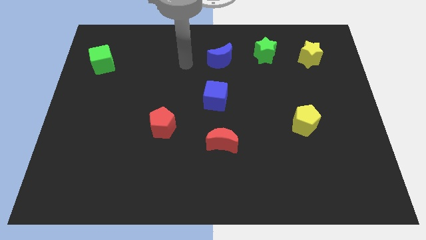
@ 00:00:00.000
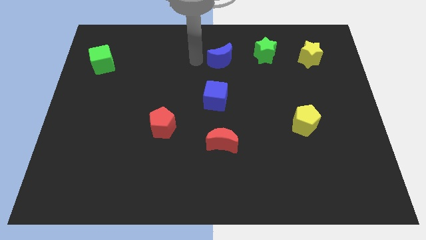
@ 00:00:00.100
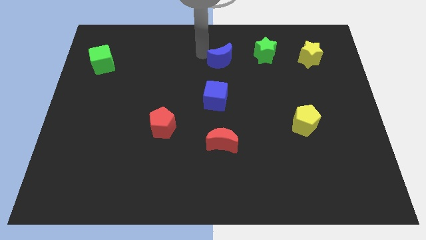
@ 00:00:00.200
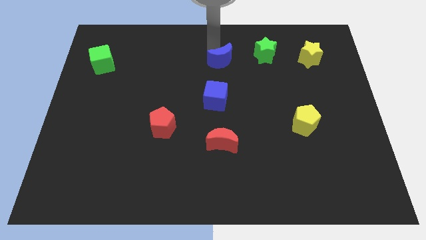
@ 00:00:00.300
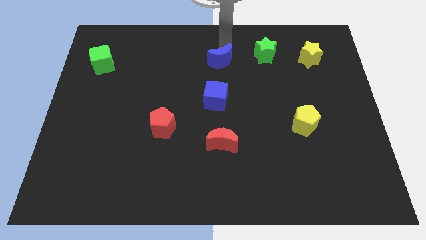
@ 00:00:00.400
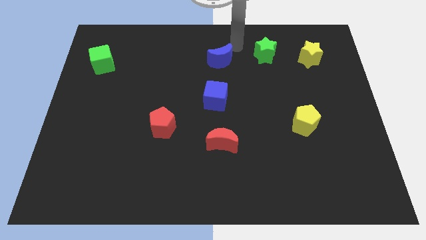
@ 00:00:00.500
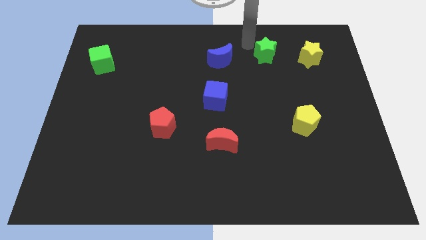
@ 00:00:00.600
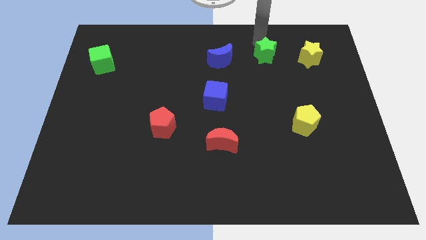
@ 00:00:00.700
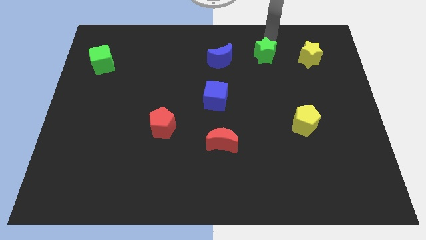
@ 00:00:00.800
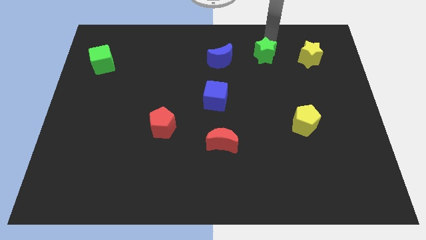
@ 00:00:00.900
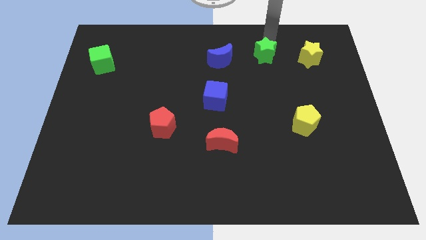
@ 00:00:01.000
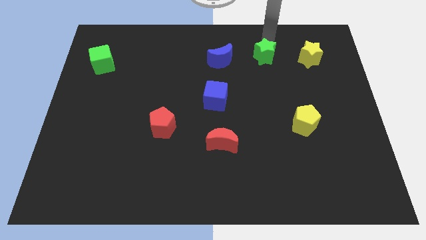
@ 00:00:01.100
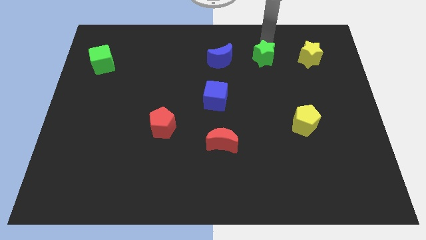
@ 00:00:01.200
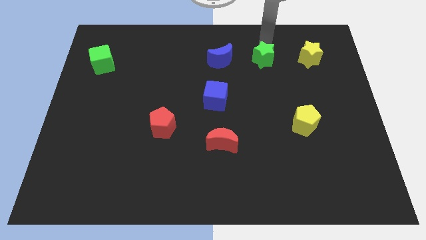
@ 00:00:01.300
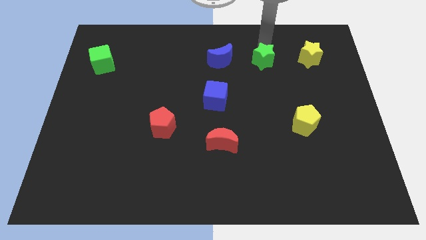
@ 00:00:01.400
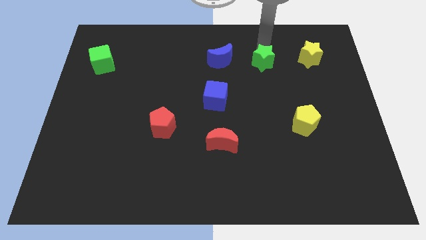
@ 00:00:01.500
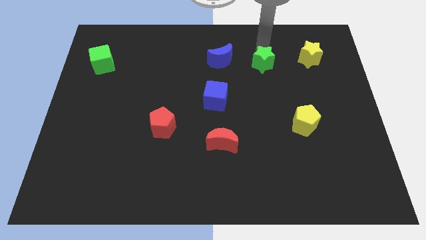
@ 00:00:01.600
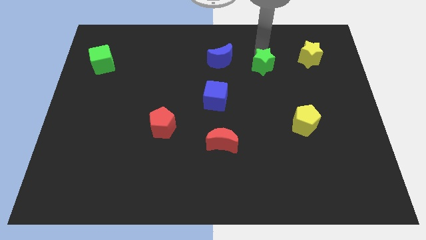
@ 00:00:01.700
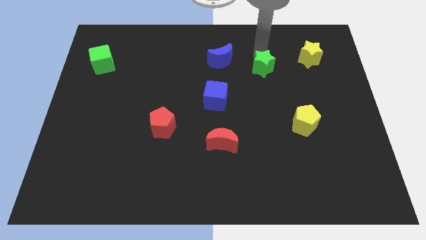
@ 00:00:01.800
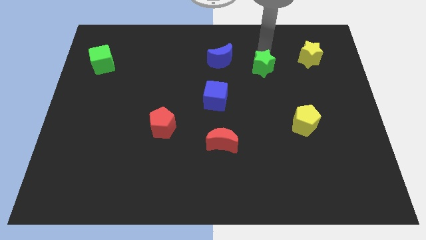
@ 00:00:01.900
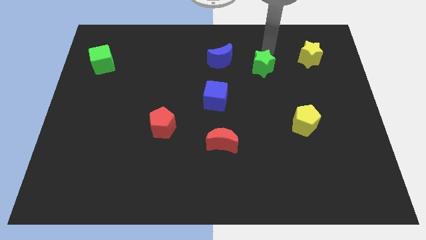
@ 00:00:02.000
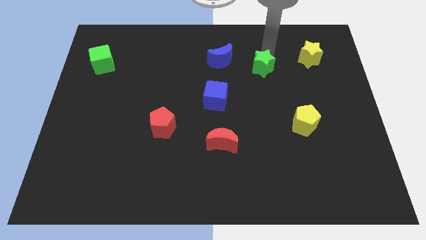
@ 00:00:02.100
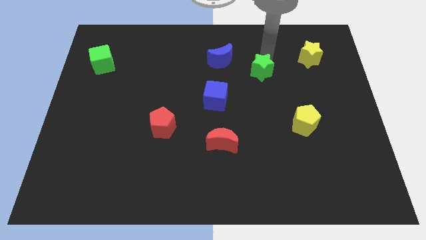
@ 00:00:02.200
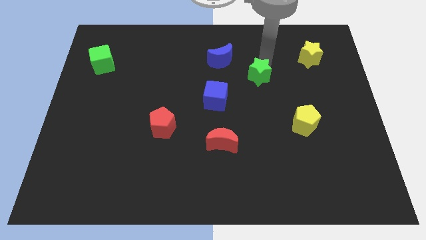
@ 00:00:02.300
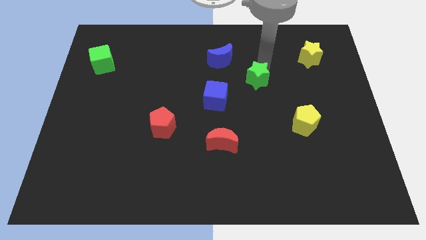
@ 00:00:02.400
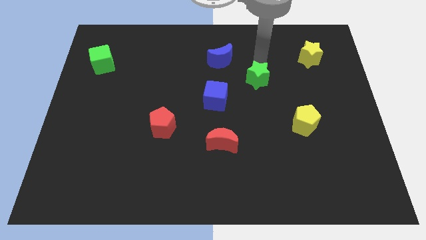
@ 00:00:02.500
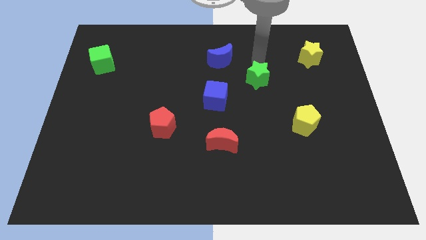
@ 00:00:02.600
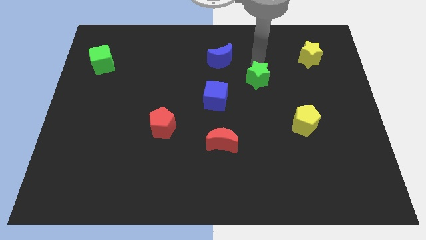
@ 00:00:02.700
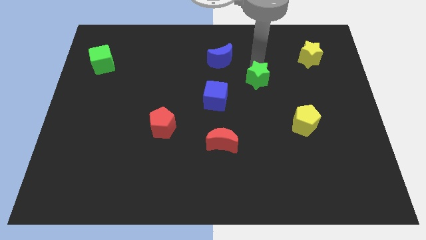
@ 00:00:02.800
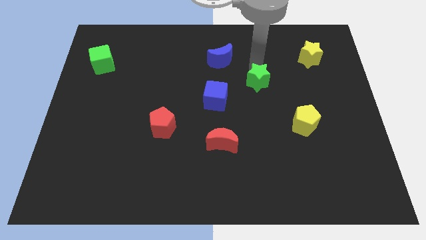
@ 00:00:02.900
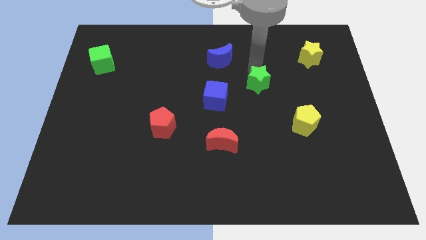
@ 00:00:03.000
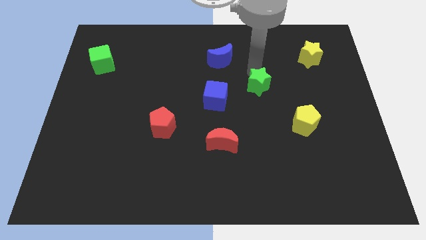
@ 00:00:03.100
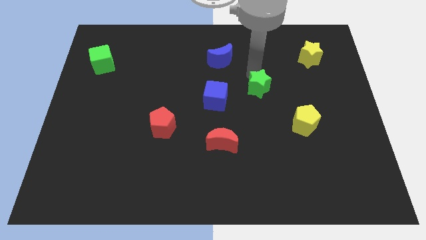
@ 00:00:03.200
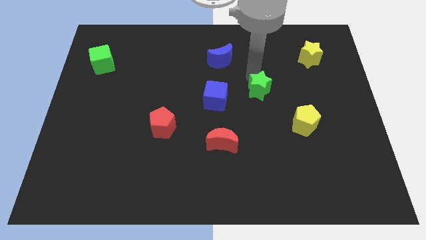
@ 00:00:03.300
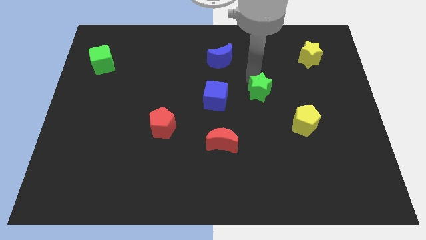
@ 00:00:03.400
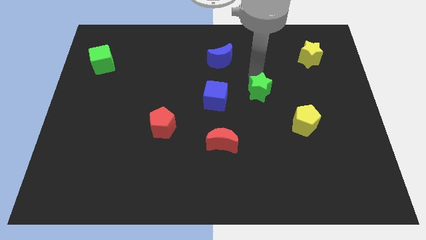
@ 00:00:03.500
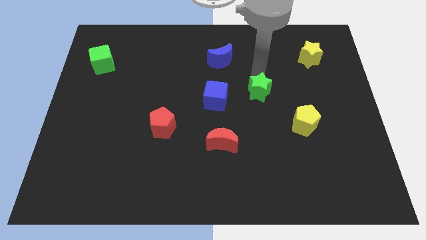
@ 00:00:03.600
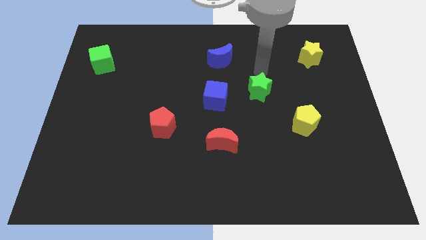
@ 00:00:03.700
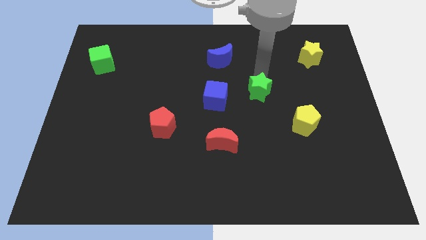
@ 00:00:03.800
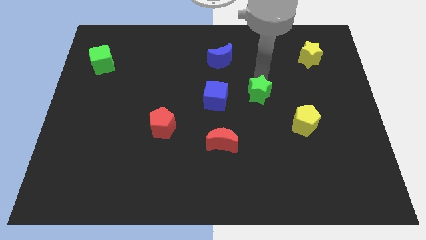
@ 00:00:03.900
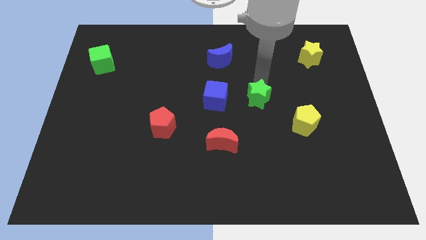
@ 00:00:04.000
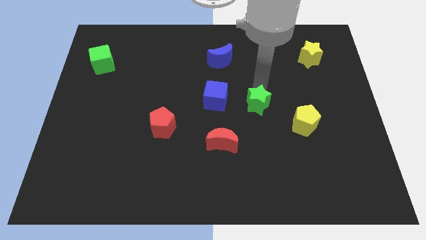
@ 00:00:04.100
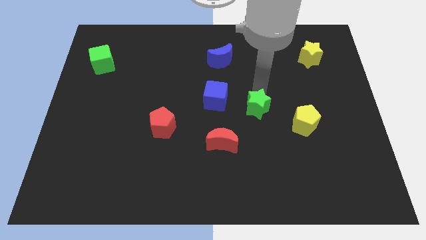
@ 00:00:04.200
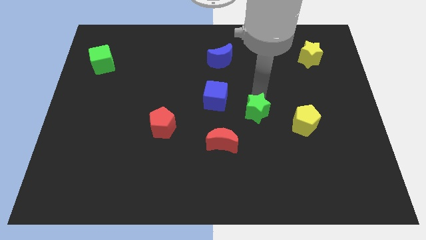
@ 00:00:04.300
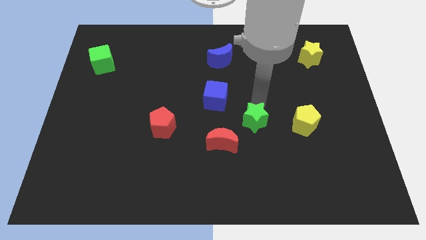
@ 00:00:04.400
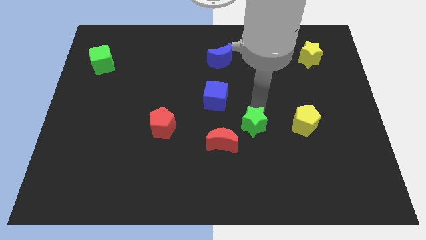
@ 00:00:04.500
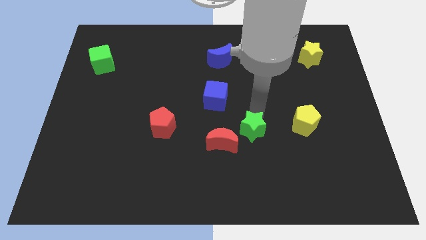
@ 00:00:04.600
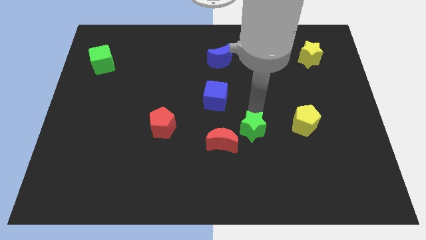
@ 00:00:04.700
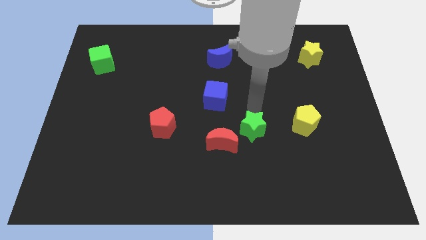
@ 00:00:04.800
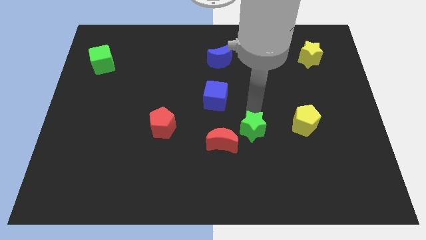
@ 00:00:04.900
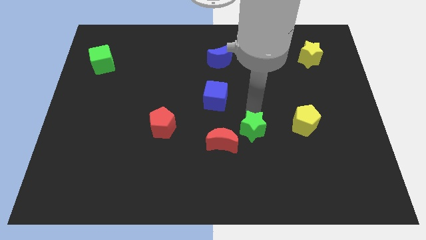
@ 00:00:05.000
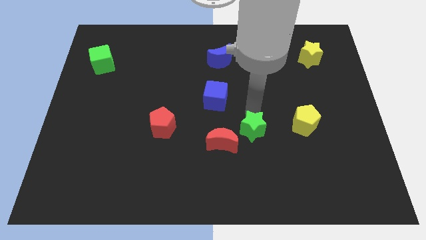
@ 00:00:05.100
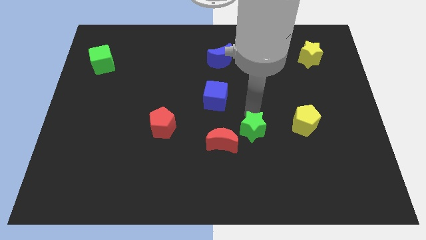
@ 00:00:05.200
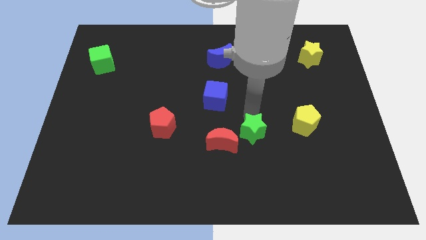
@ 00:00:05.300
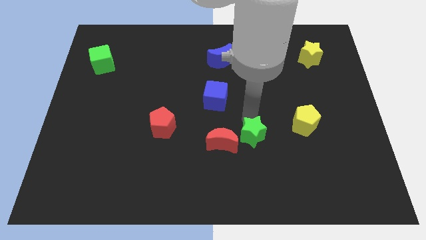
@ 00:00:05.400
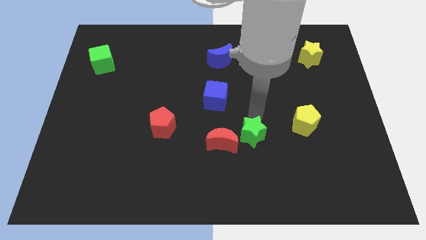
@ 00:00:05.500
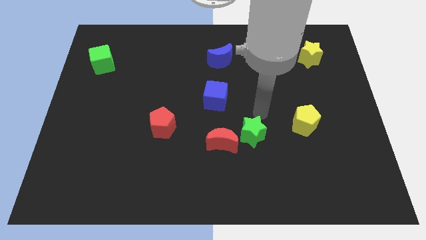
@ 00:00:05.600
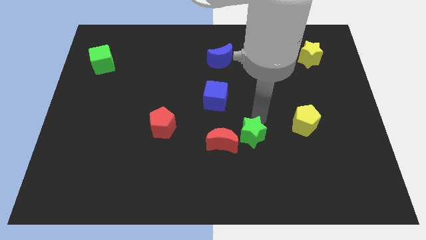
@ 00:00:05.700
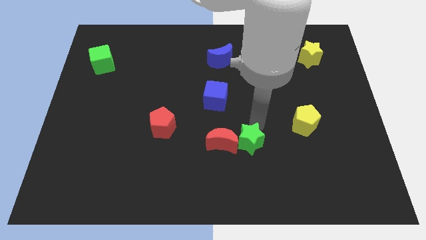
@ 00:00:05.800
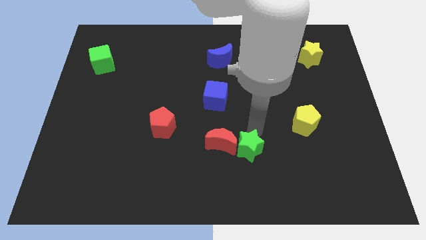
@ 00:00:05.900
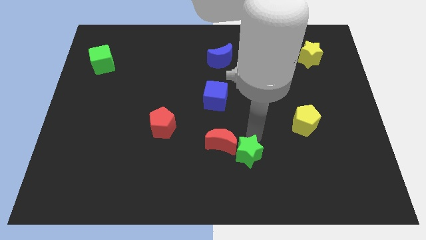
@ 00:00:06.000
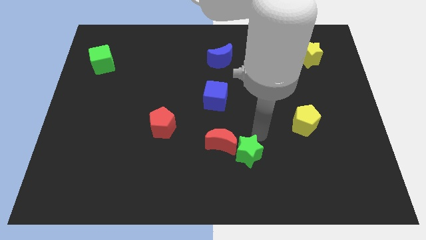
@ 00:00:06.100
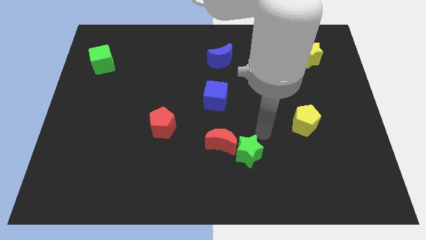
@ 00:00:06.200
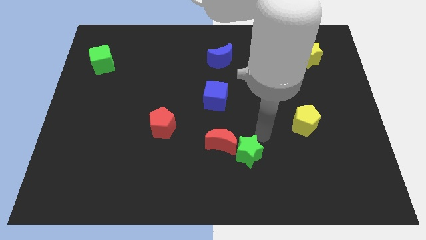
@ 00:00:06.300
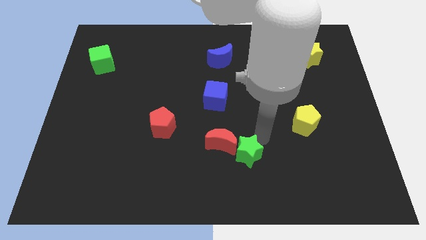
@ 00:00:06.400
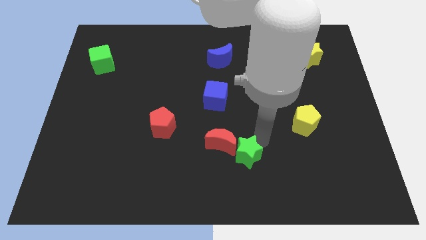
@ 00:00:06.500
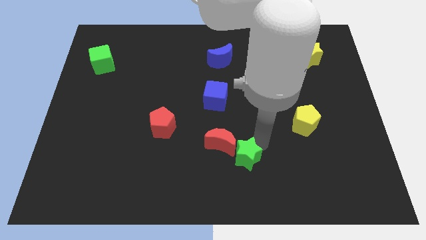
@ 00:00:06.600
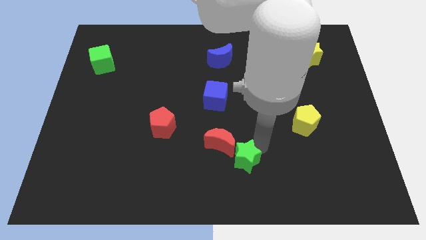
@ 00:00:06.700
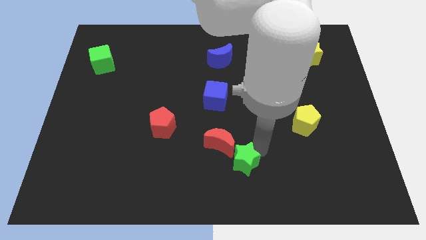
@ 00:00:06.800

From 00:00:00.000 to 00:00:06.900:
push the green star to the bottom side
